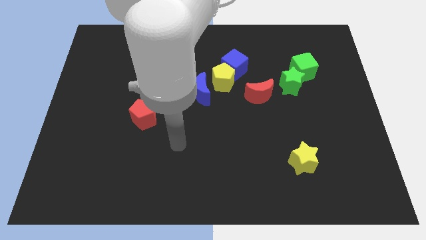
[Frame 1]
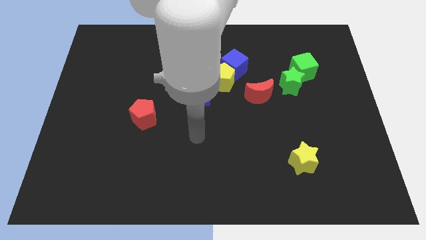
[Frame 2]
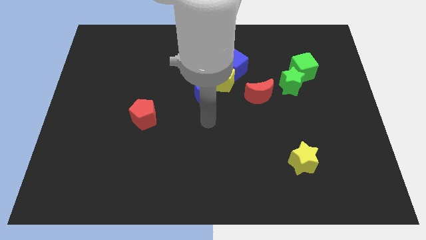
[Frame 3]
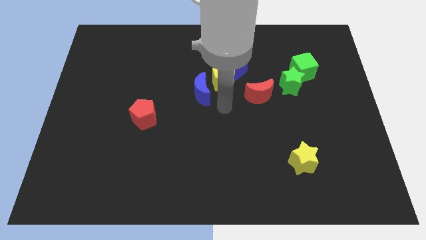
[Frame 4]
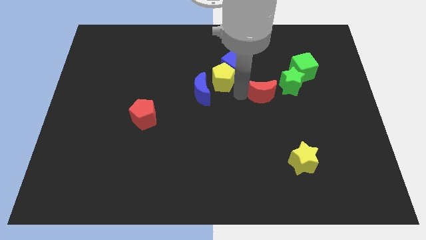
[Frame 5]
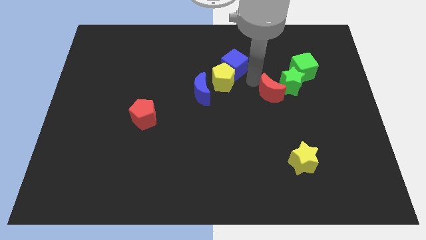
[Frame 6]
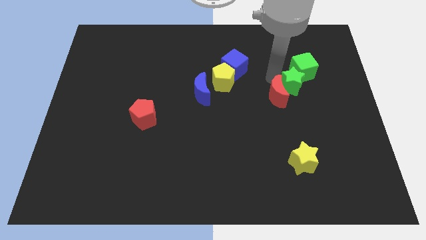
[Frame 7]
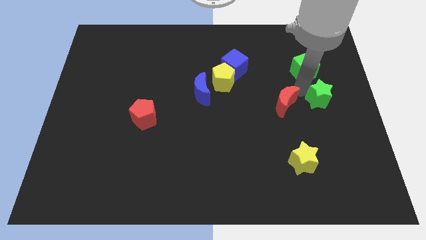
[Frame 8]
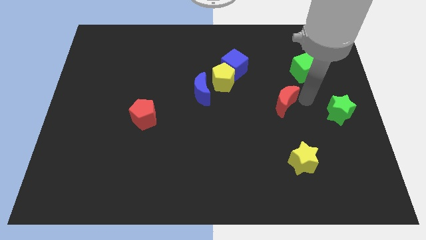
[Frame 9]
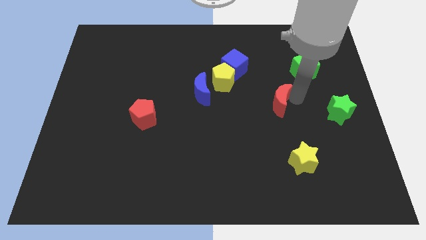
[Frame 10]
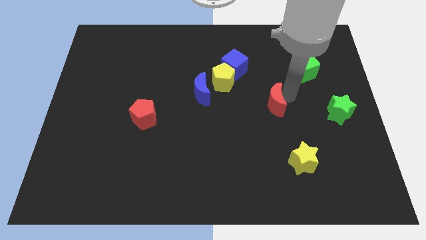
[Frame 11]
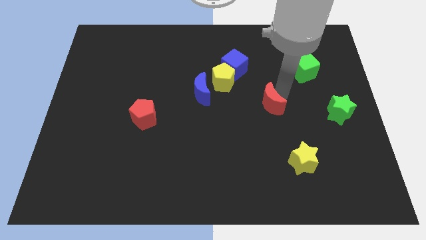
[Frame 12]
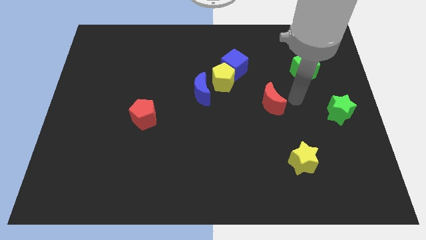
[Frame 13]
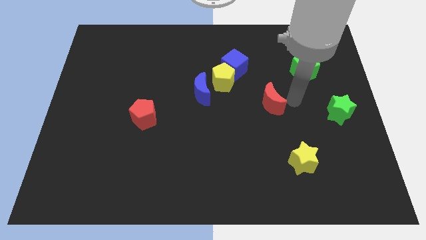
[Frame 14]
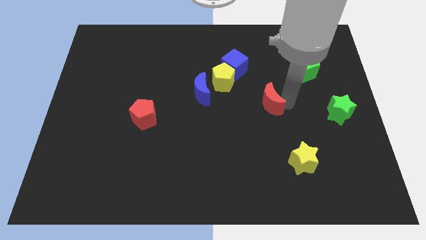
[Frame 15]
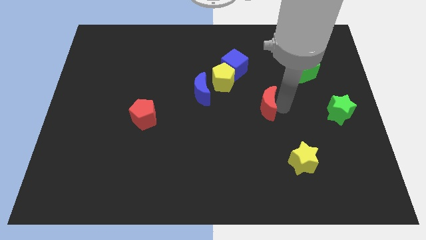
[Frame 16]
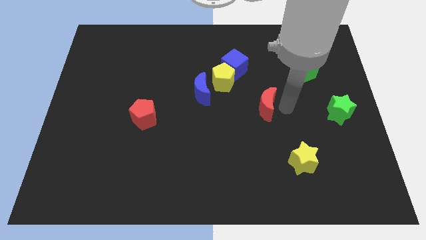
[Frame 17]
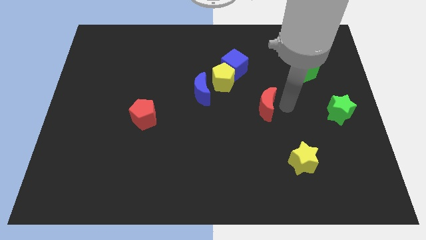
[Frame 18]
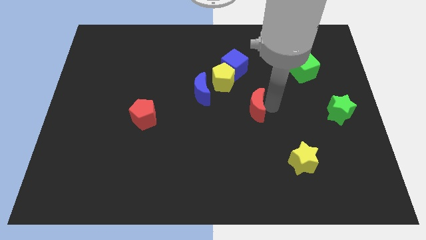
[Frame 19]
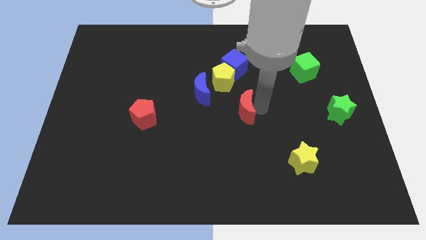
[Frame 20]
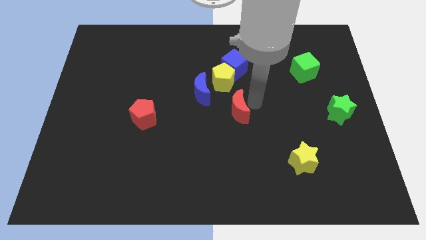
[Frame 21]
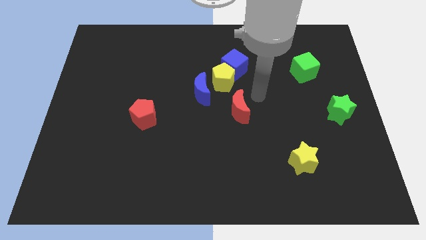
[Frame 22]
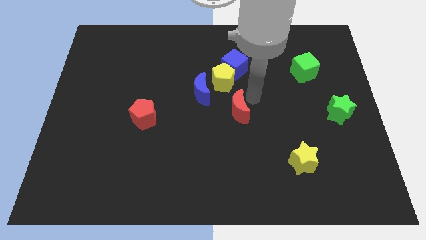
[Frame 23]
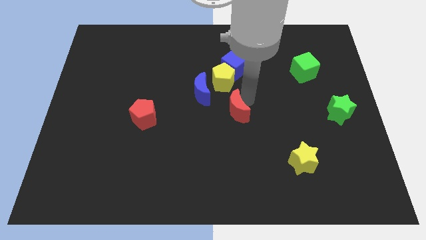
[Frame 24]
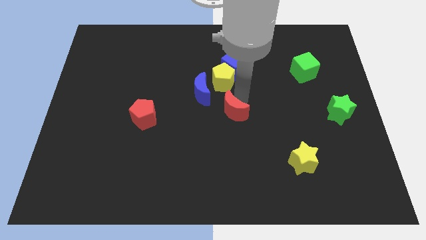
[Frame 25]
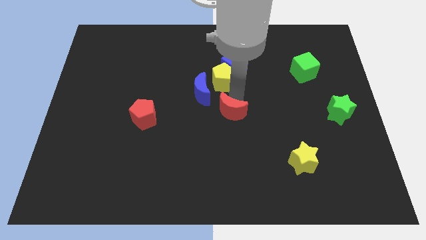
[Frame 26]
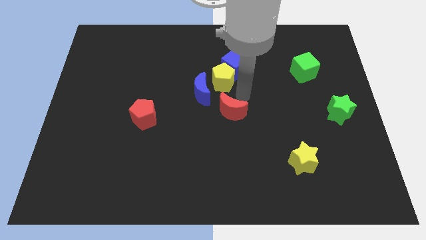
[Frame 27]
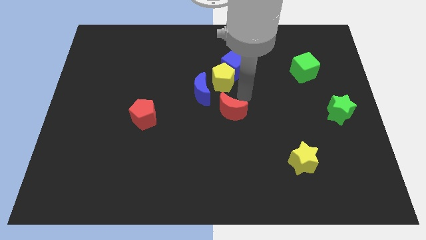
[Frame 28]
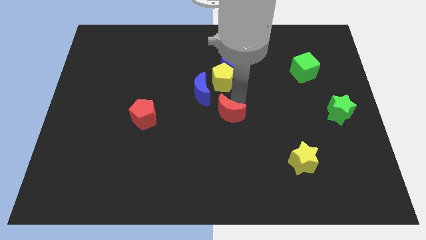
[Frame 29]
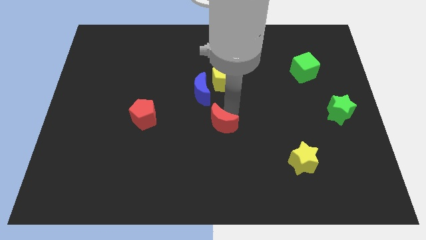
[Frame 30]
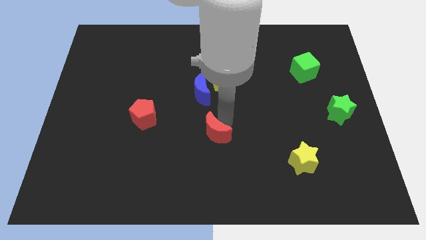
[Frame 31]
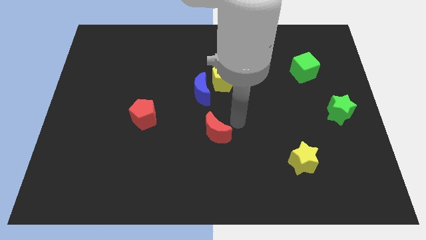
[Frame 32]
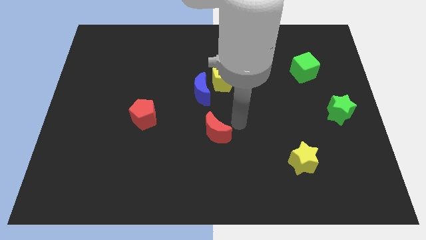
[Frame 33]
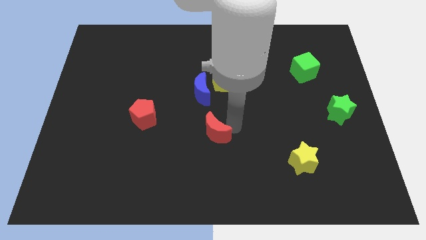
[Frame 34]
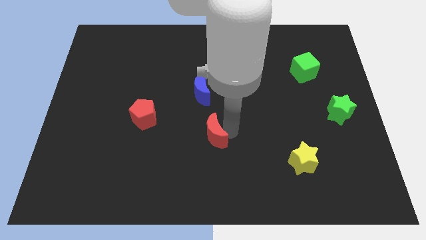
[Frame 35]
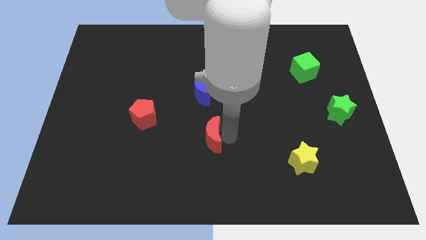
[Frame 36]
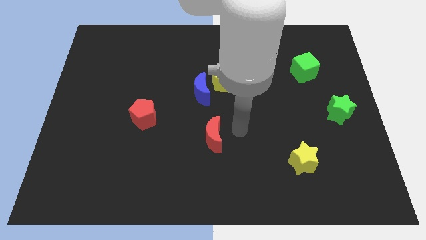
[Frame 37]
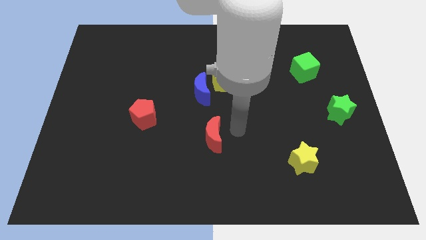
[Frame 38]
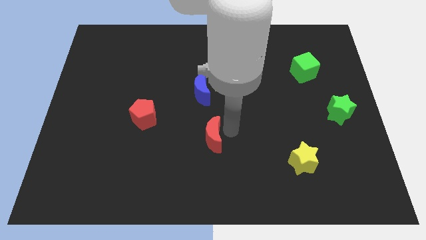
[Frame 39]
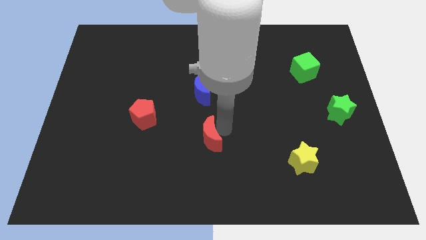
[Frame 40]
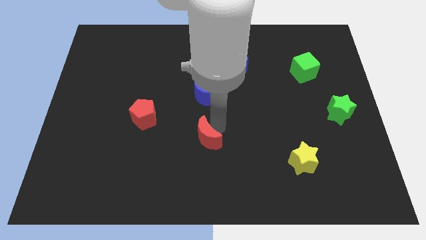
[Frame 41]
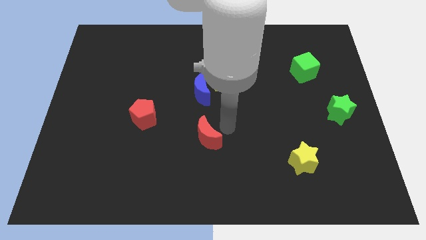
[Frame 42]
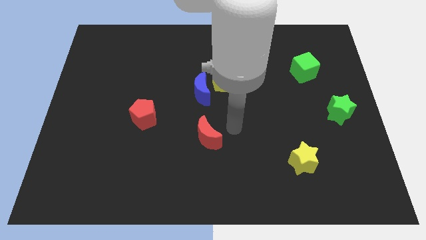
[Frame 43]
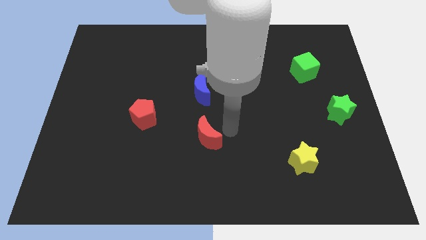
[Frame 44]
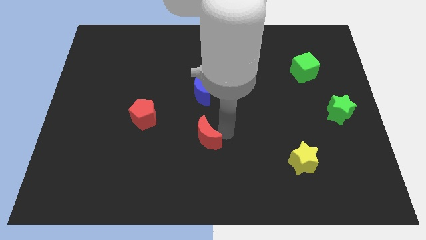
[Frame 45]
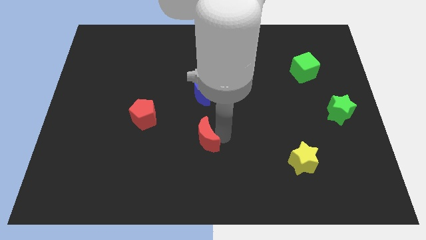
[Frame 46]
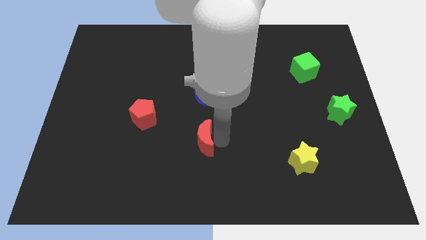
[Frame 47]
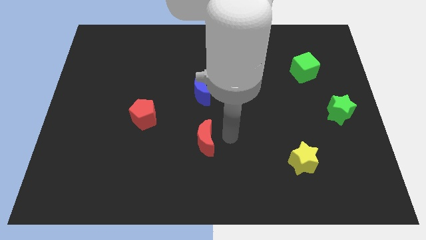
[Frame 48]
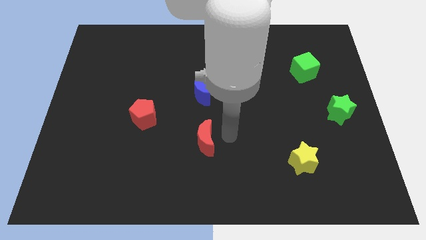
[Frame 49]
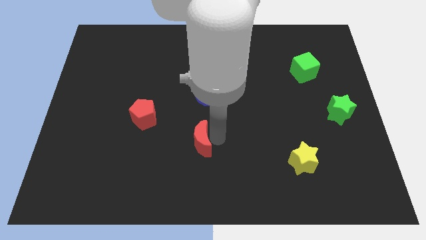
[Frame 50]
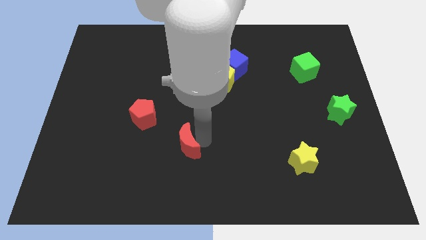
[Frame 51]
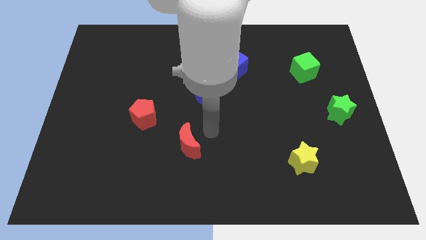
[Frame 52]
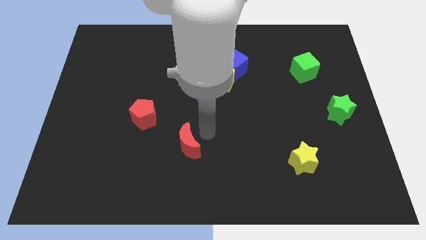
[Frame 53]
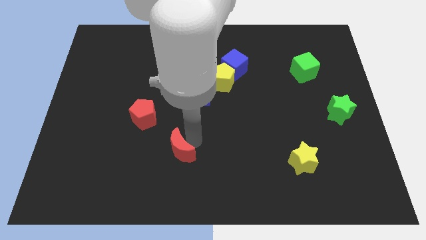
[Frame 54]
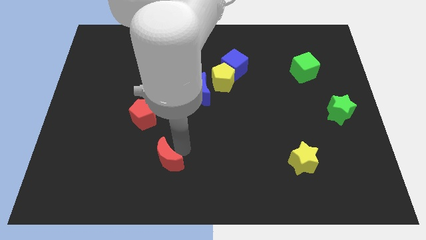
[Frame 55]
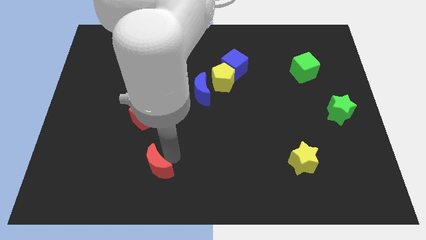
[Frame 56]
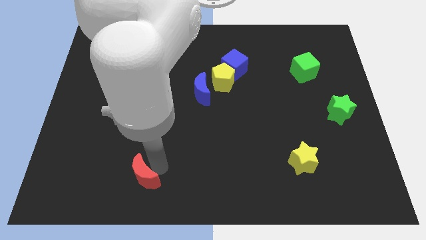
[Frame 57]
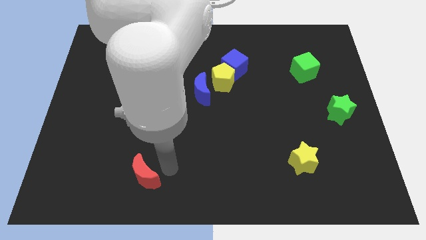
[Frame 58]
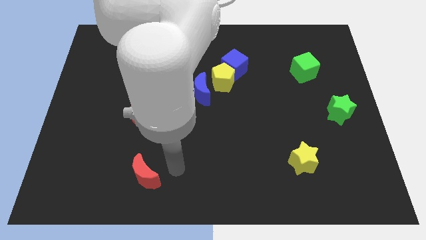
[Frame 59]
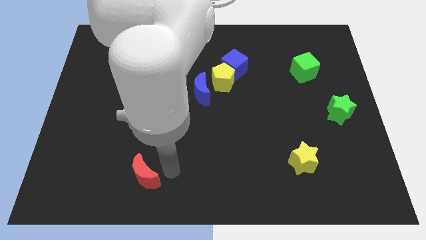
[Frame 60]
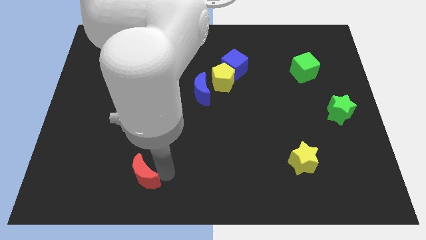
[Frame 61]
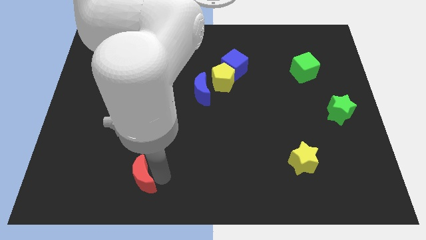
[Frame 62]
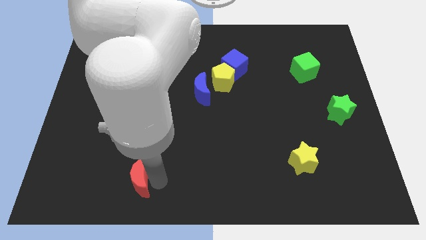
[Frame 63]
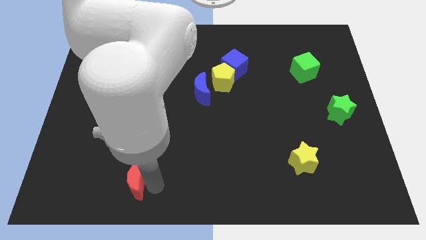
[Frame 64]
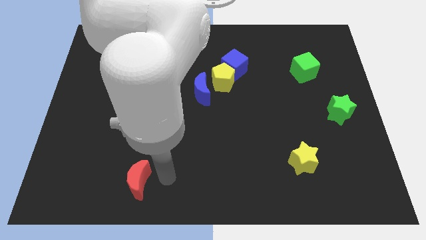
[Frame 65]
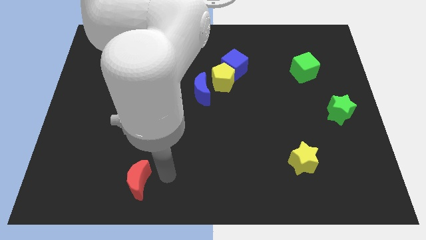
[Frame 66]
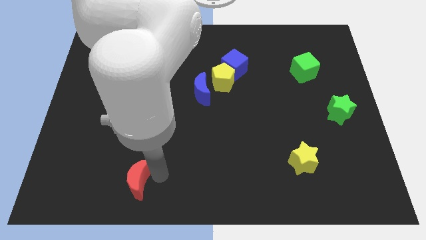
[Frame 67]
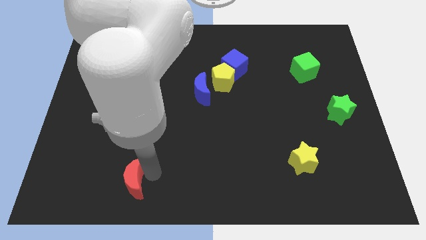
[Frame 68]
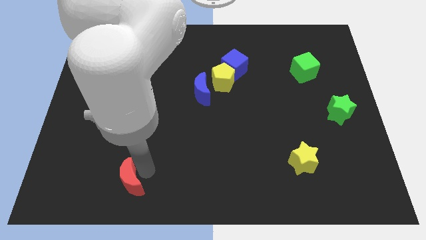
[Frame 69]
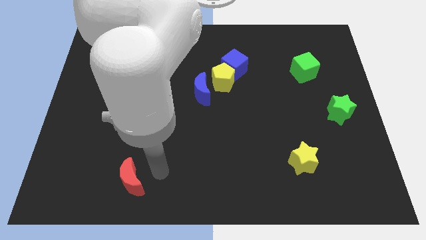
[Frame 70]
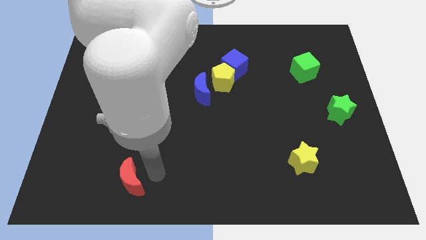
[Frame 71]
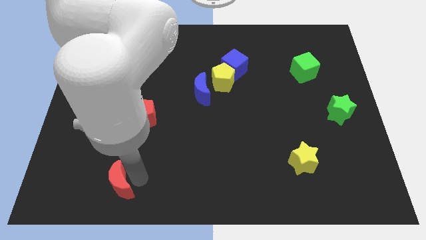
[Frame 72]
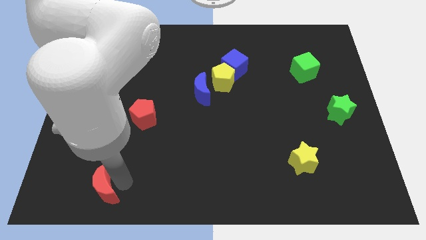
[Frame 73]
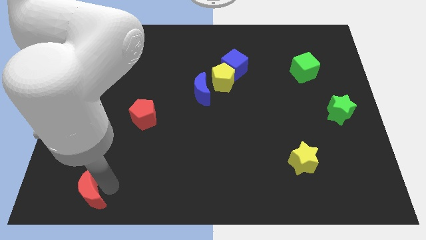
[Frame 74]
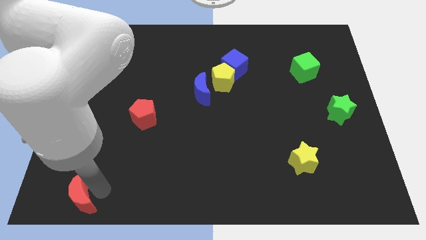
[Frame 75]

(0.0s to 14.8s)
slide the red moon to the bottom left corner
